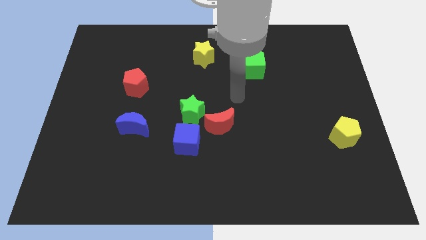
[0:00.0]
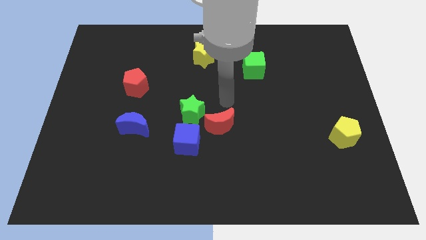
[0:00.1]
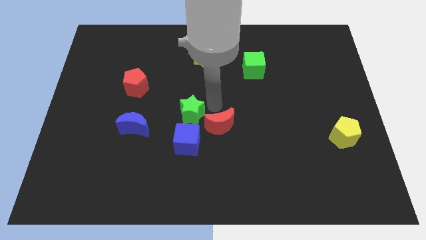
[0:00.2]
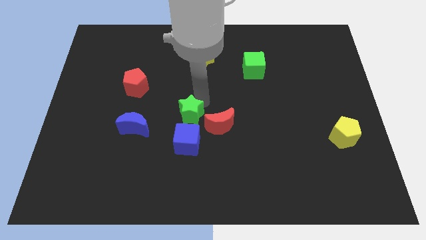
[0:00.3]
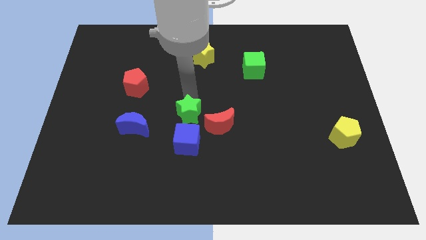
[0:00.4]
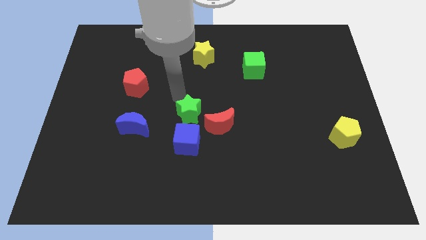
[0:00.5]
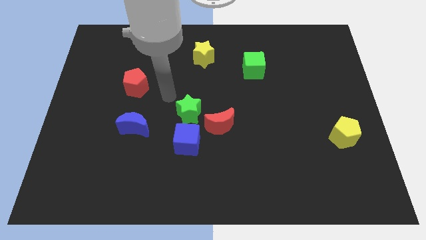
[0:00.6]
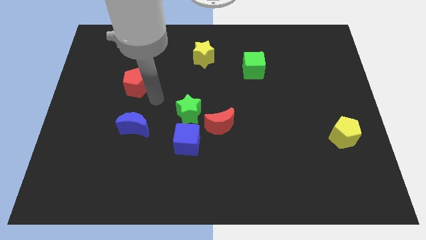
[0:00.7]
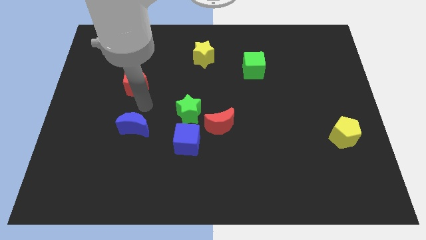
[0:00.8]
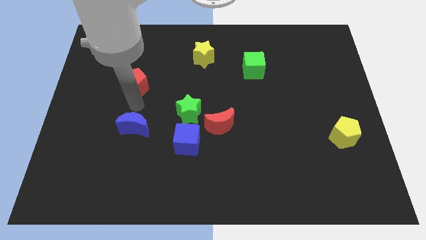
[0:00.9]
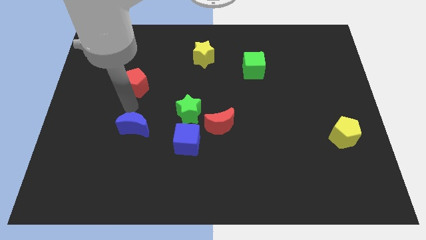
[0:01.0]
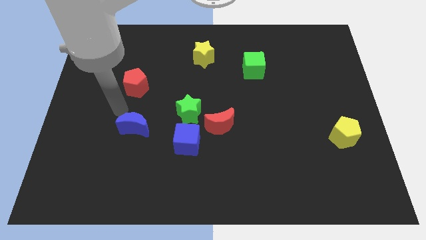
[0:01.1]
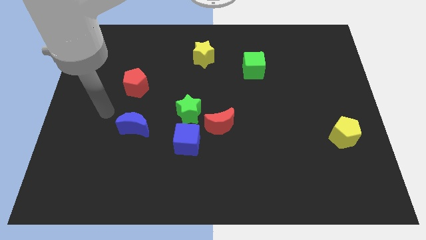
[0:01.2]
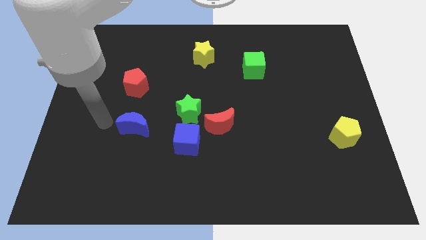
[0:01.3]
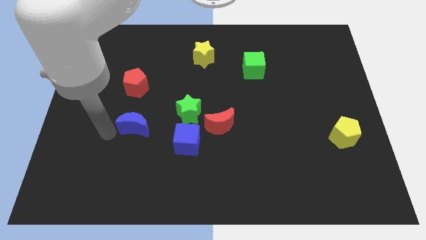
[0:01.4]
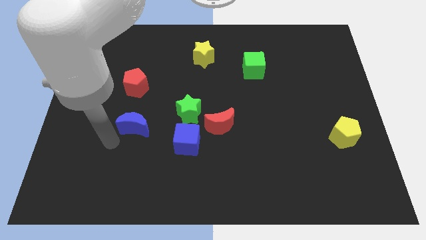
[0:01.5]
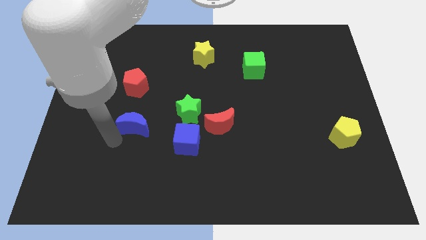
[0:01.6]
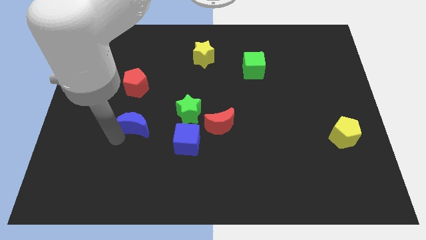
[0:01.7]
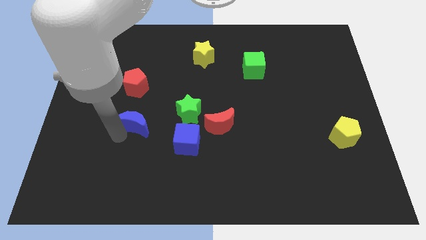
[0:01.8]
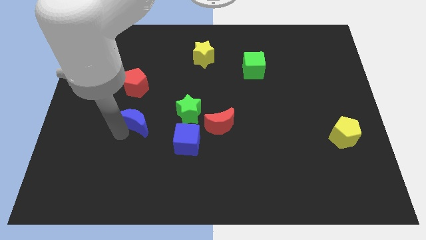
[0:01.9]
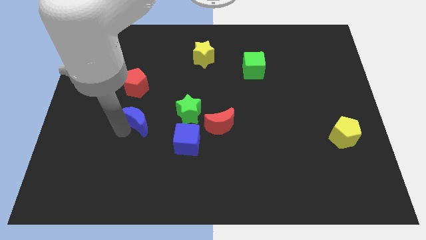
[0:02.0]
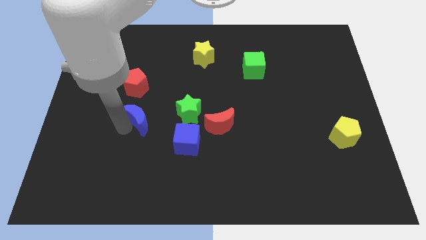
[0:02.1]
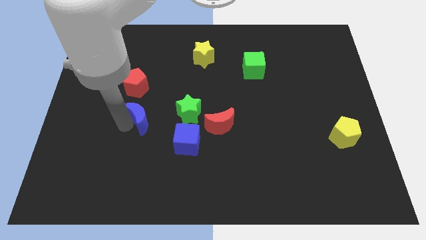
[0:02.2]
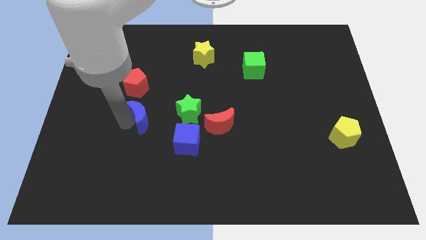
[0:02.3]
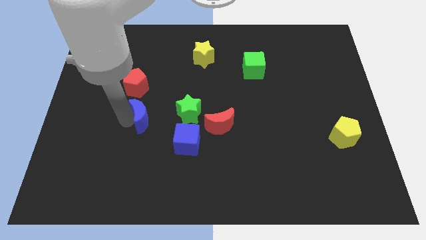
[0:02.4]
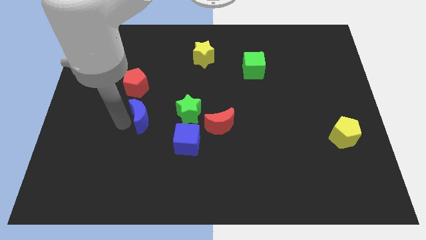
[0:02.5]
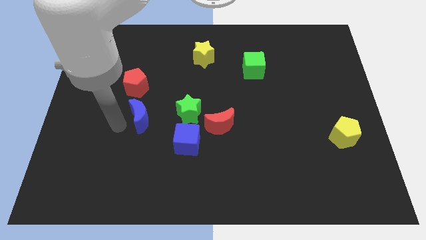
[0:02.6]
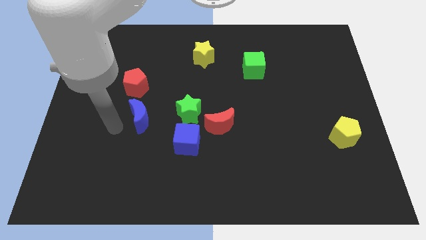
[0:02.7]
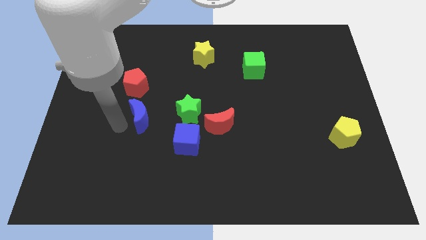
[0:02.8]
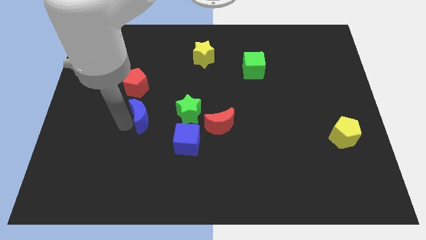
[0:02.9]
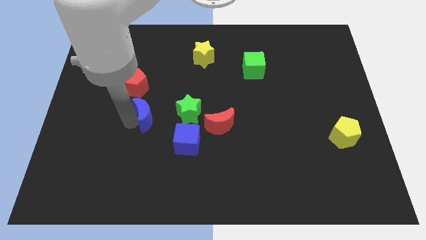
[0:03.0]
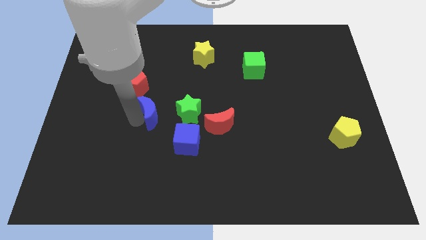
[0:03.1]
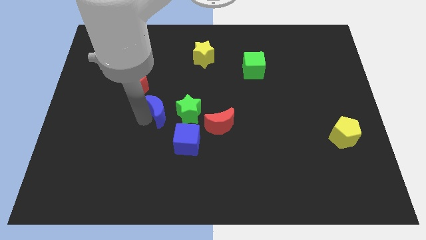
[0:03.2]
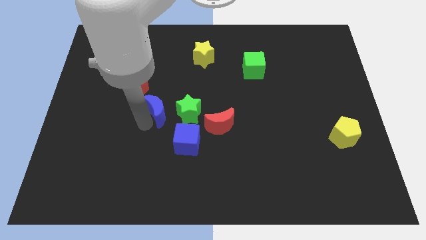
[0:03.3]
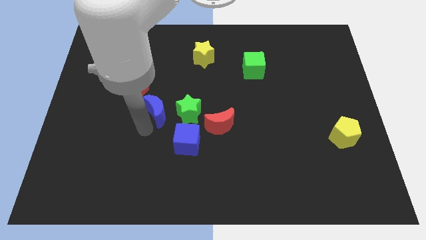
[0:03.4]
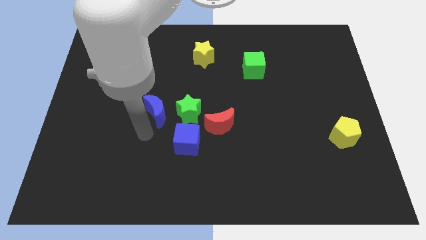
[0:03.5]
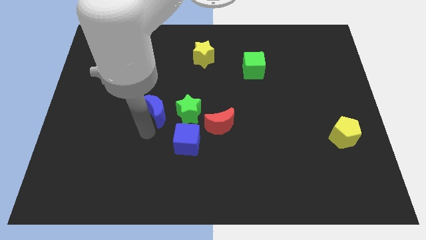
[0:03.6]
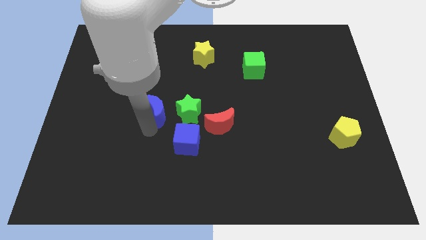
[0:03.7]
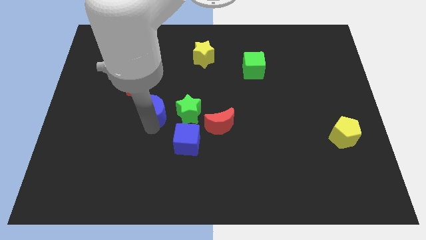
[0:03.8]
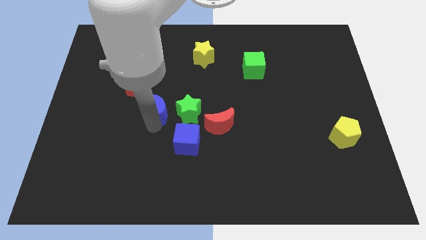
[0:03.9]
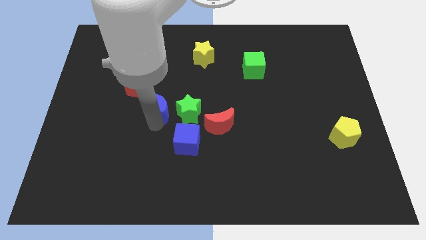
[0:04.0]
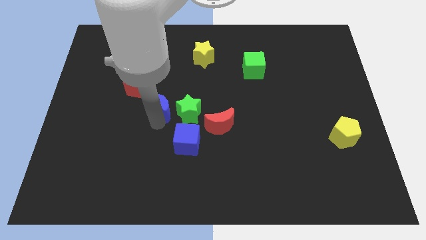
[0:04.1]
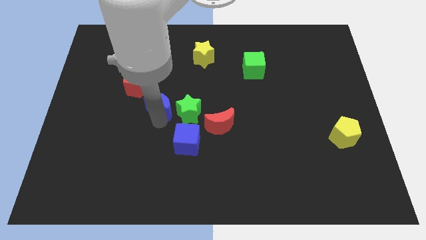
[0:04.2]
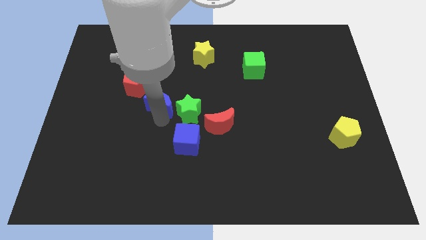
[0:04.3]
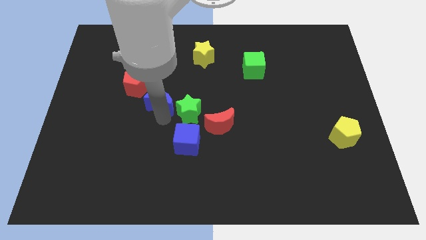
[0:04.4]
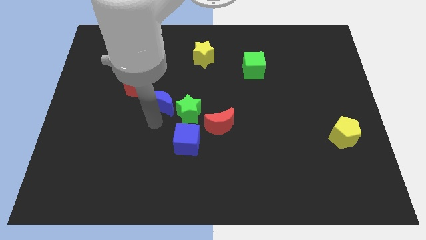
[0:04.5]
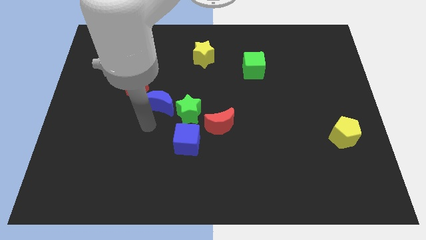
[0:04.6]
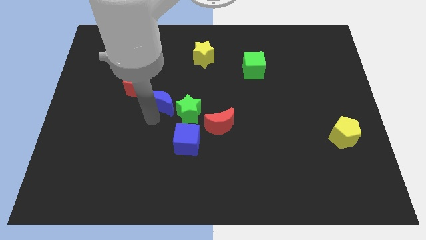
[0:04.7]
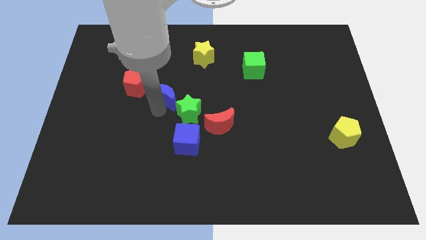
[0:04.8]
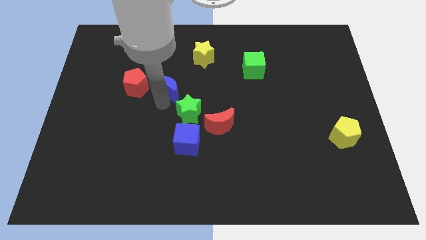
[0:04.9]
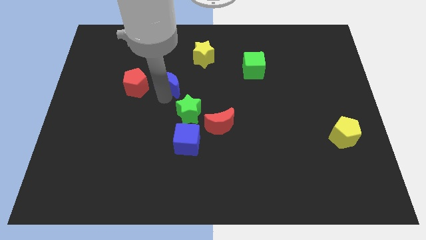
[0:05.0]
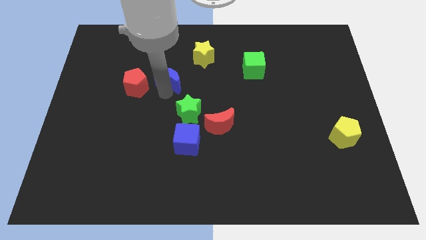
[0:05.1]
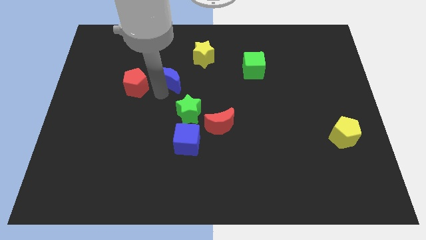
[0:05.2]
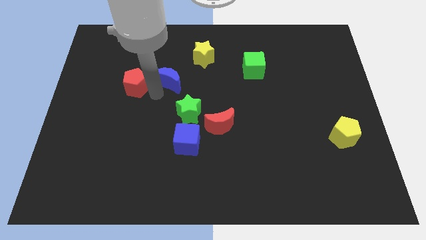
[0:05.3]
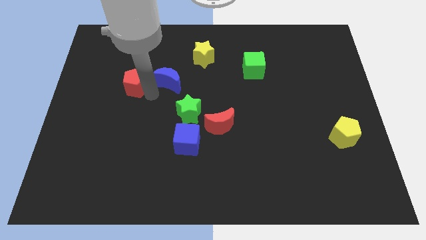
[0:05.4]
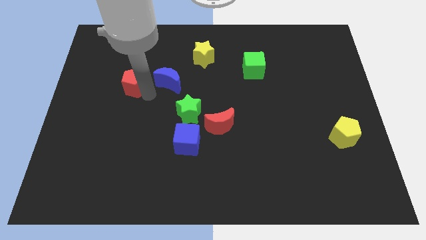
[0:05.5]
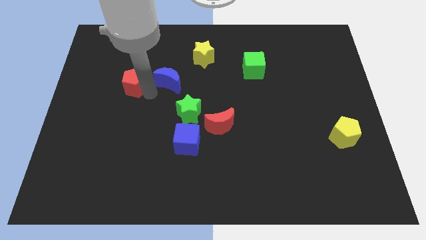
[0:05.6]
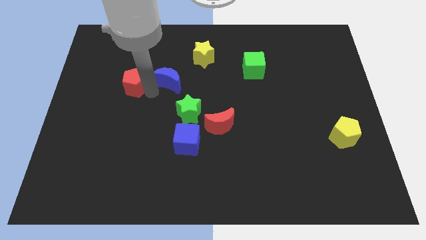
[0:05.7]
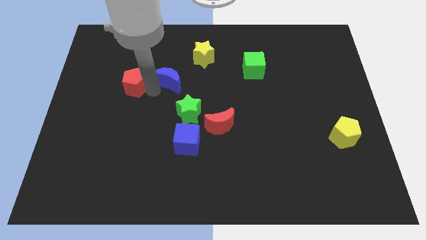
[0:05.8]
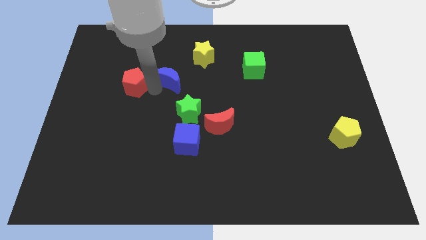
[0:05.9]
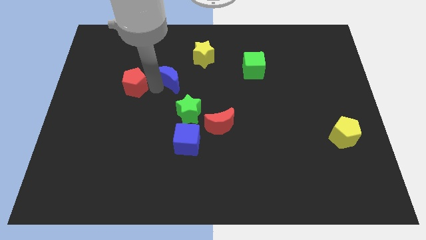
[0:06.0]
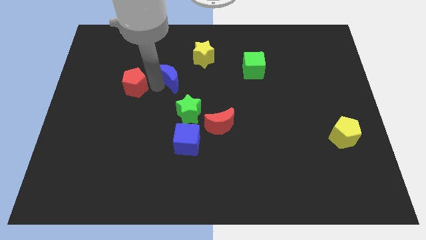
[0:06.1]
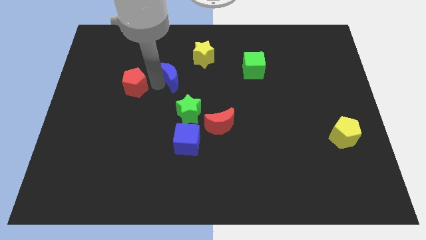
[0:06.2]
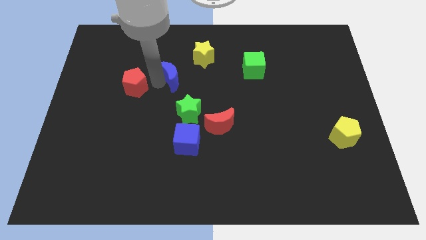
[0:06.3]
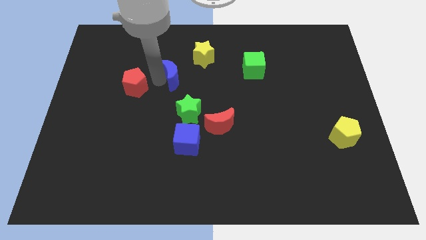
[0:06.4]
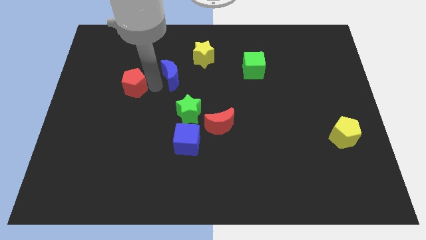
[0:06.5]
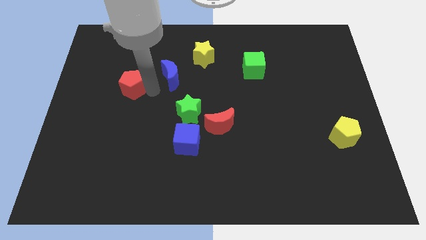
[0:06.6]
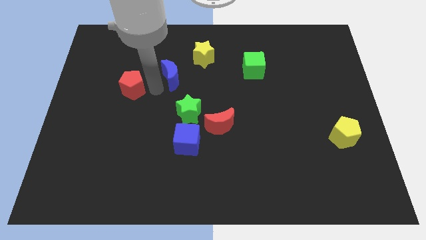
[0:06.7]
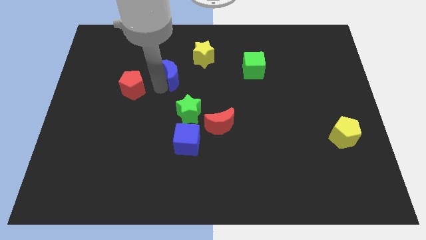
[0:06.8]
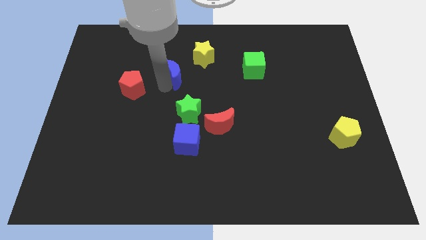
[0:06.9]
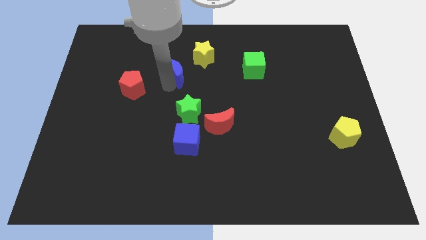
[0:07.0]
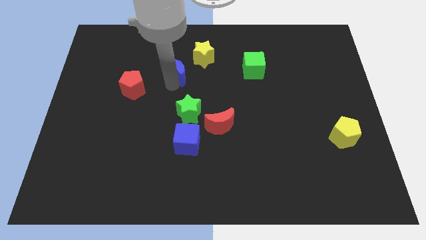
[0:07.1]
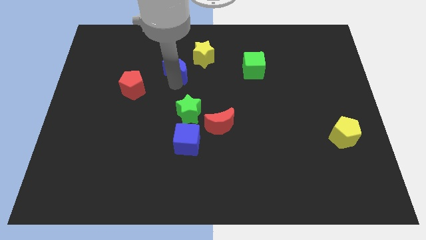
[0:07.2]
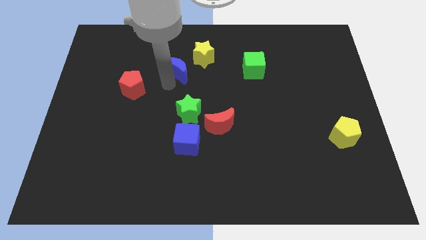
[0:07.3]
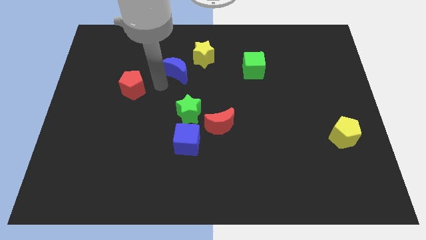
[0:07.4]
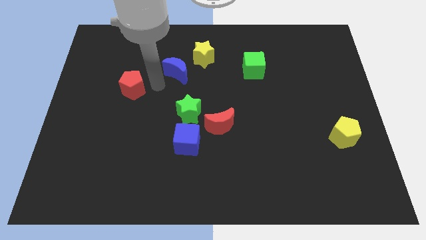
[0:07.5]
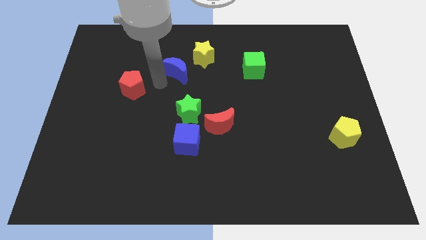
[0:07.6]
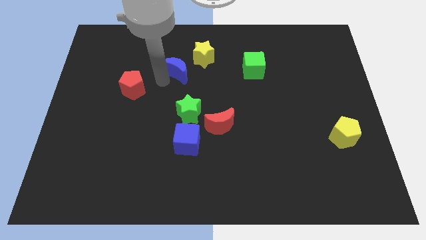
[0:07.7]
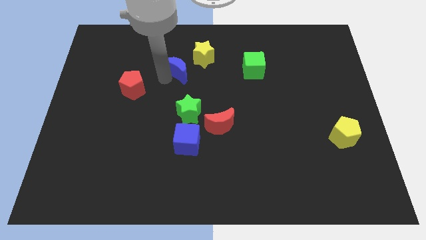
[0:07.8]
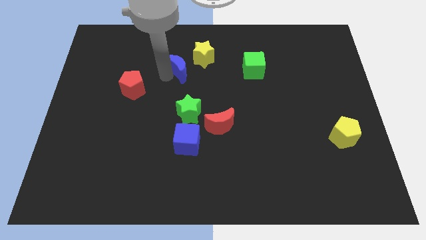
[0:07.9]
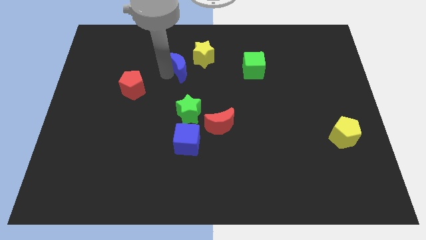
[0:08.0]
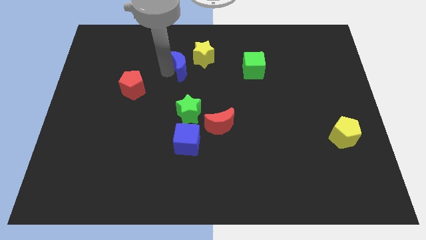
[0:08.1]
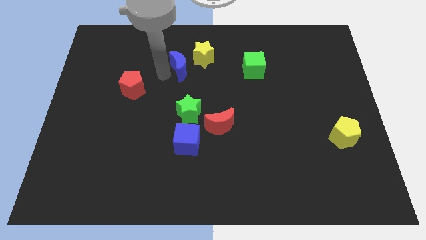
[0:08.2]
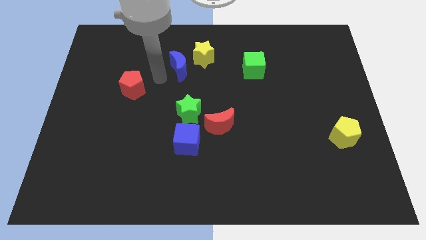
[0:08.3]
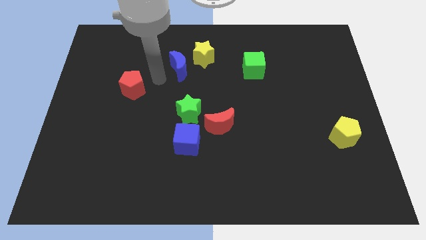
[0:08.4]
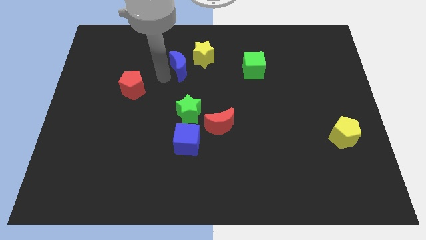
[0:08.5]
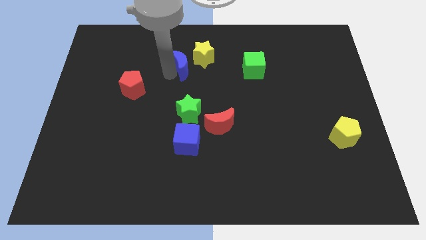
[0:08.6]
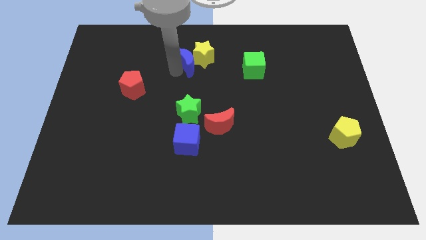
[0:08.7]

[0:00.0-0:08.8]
push the blue moon to the yellow star
